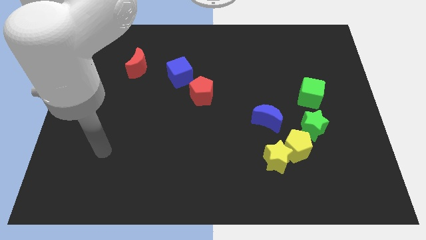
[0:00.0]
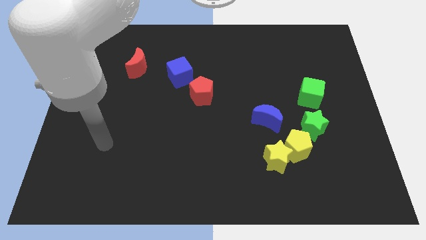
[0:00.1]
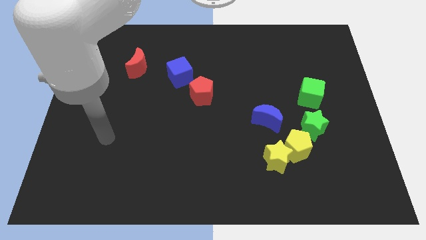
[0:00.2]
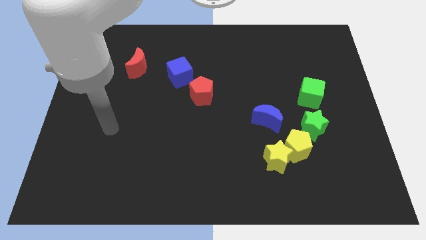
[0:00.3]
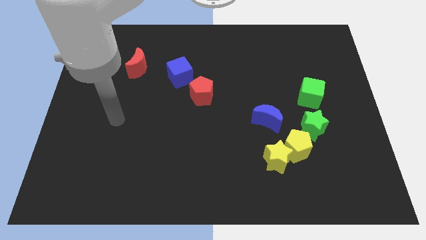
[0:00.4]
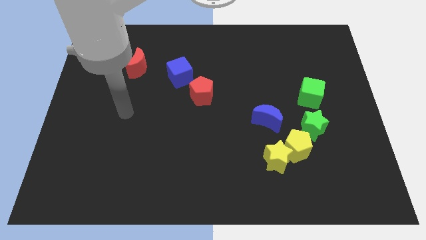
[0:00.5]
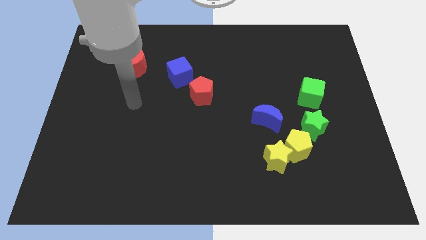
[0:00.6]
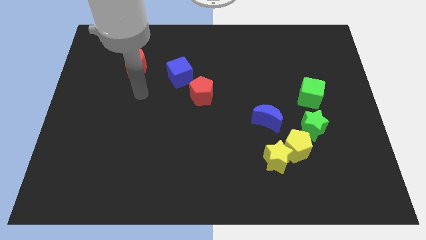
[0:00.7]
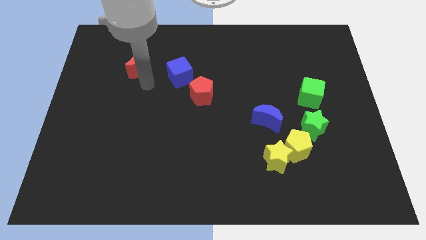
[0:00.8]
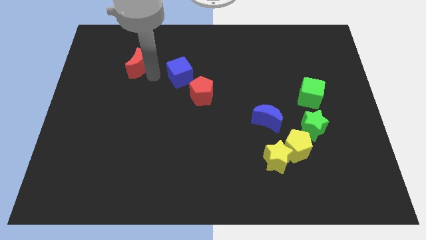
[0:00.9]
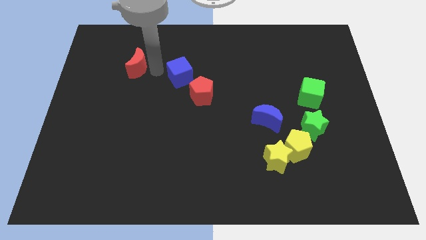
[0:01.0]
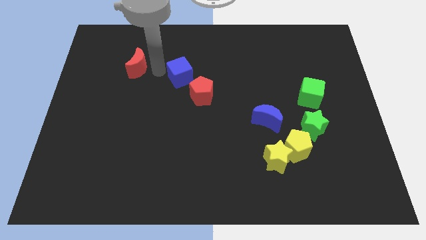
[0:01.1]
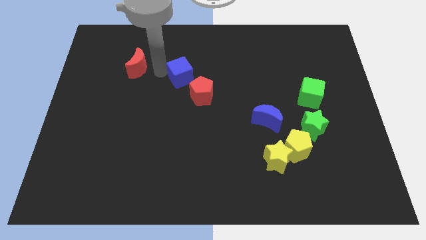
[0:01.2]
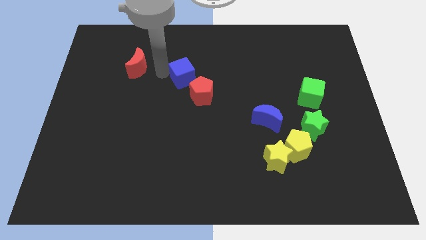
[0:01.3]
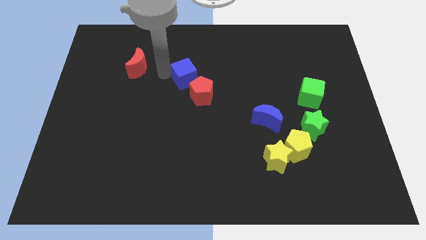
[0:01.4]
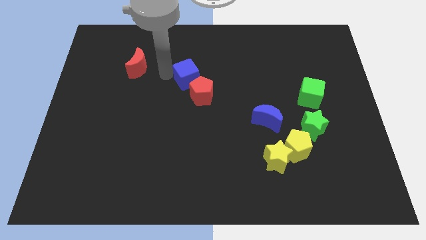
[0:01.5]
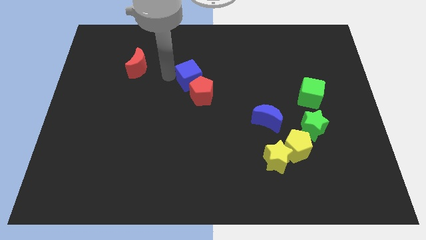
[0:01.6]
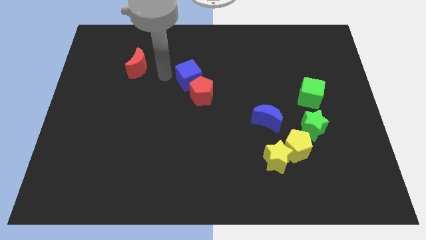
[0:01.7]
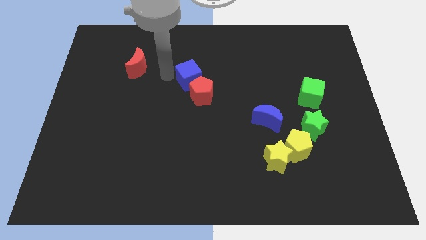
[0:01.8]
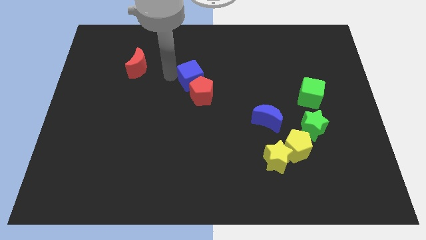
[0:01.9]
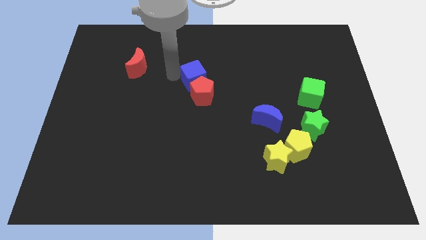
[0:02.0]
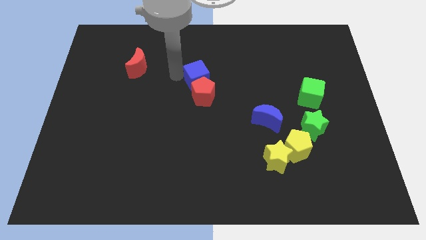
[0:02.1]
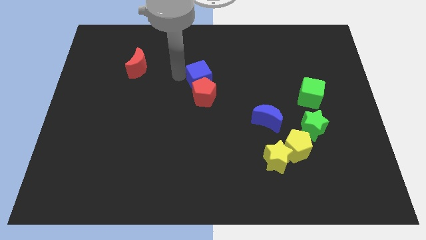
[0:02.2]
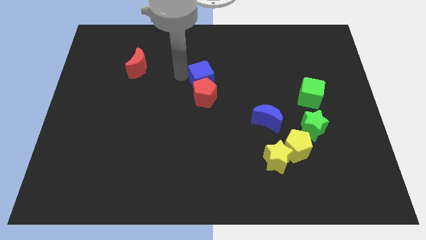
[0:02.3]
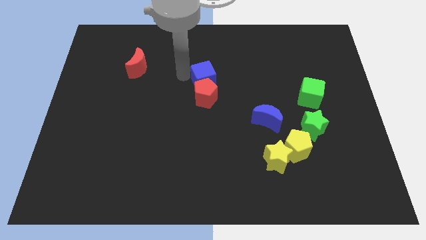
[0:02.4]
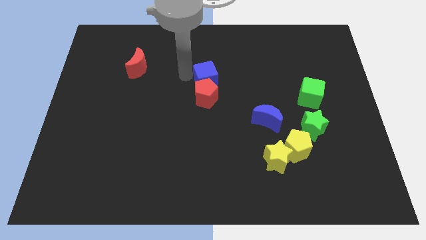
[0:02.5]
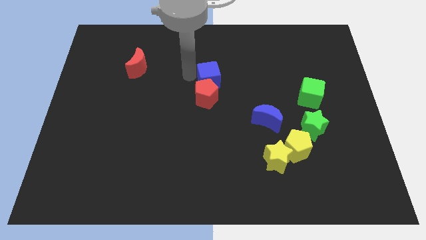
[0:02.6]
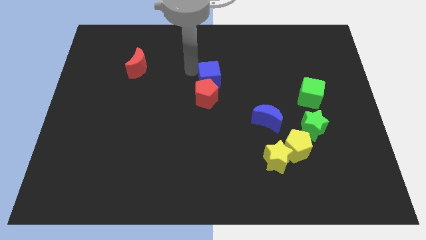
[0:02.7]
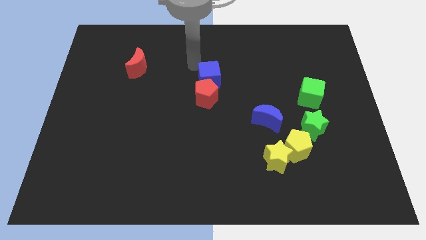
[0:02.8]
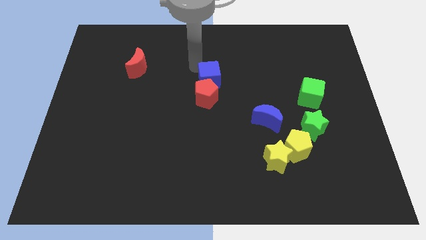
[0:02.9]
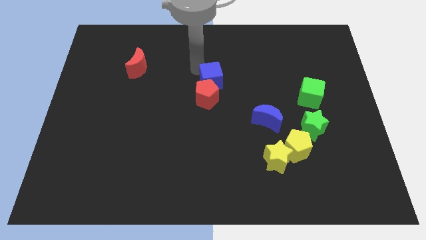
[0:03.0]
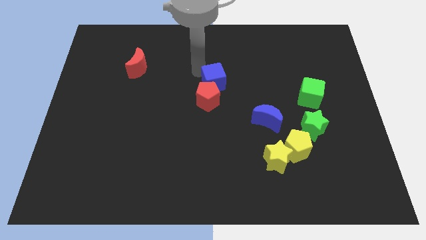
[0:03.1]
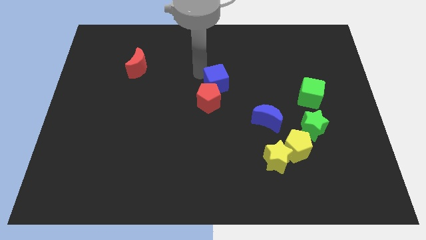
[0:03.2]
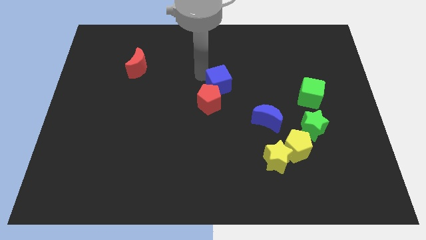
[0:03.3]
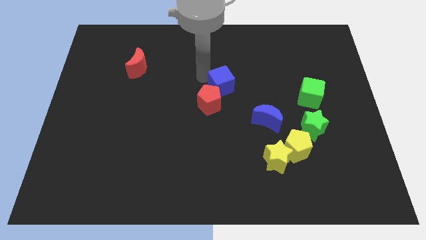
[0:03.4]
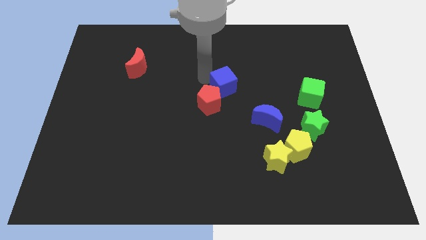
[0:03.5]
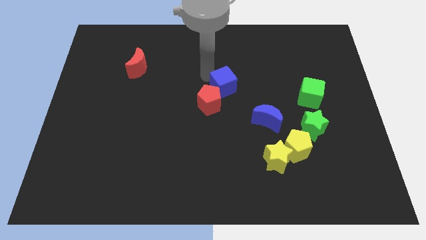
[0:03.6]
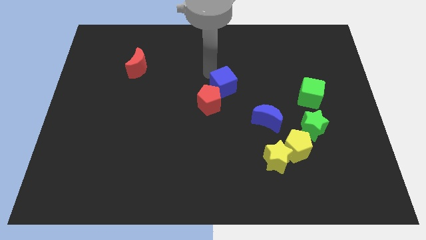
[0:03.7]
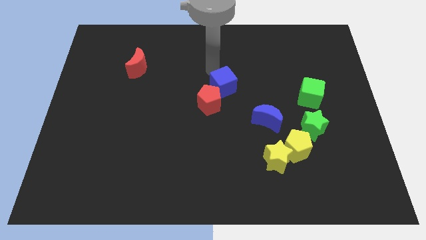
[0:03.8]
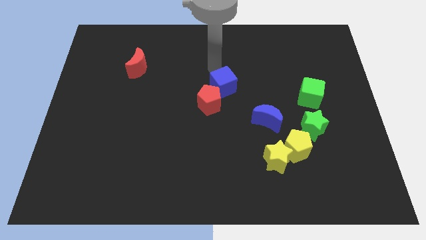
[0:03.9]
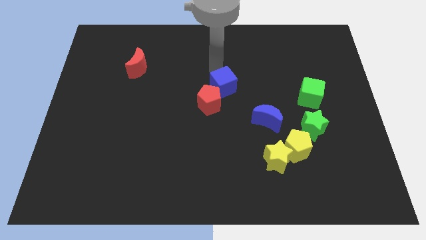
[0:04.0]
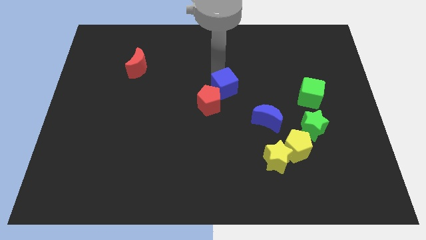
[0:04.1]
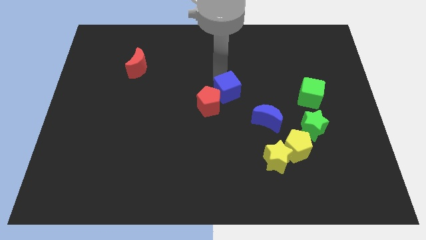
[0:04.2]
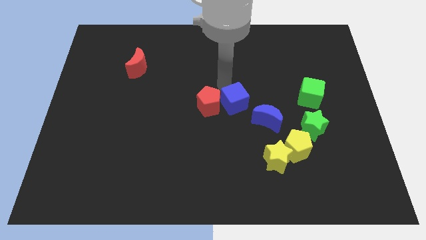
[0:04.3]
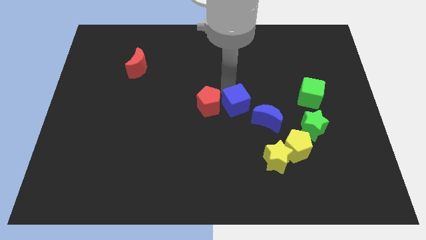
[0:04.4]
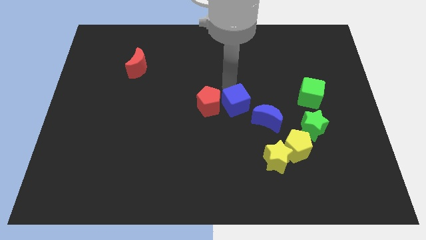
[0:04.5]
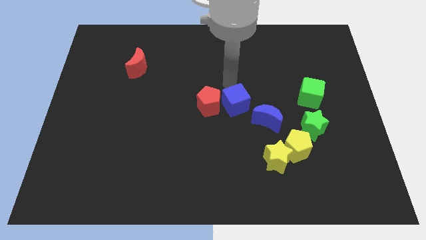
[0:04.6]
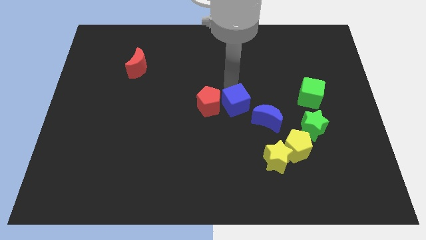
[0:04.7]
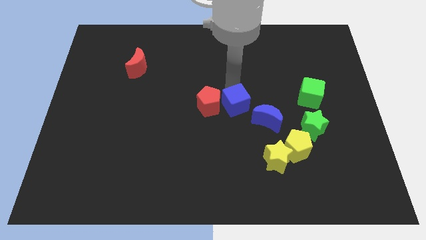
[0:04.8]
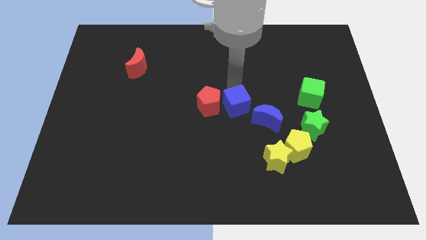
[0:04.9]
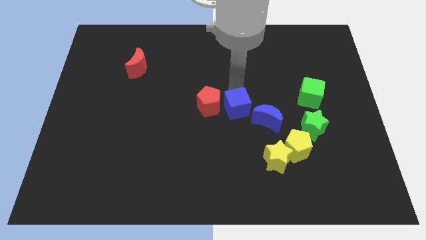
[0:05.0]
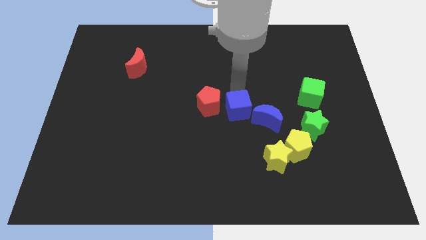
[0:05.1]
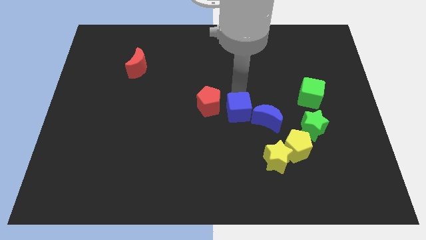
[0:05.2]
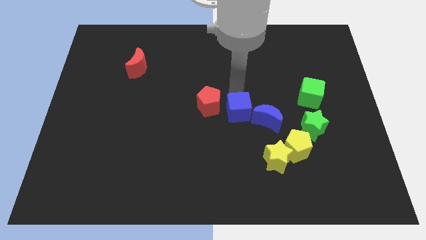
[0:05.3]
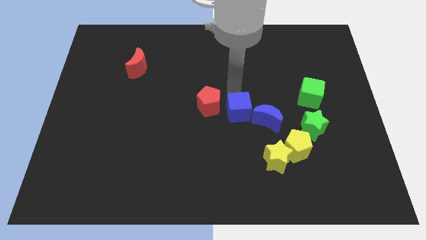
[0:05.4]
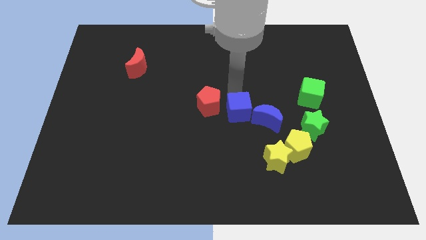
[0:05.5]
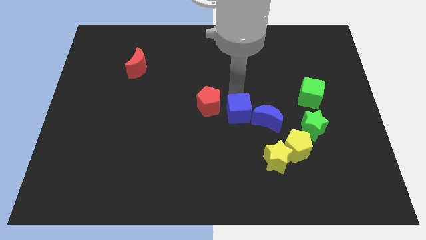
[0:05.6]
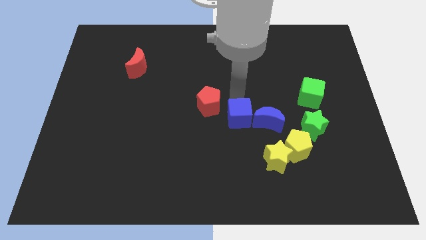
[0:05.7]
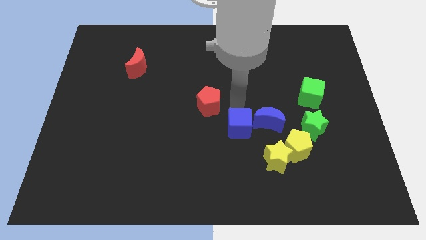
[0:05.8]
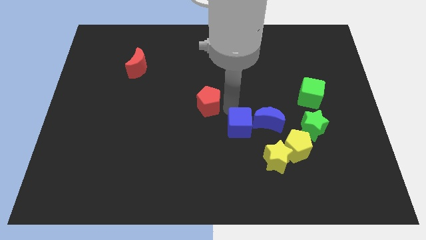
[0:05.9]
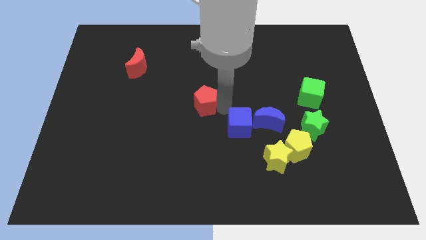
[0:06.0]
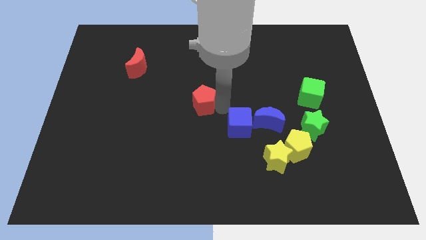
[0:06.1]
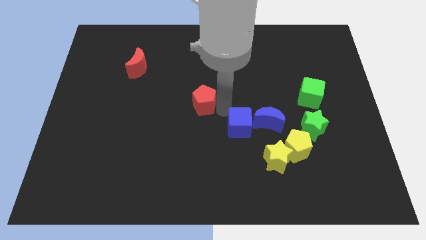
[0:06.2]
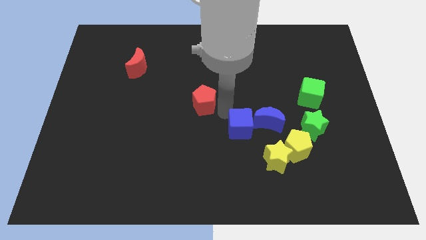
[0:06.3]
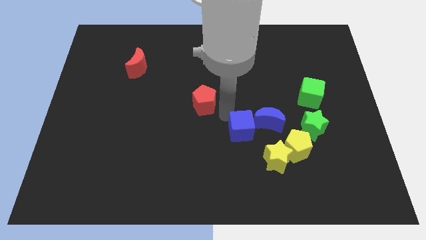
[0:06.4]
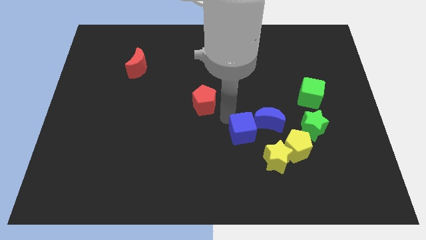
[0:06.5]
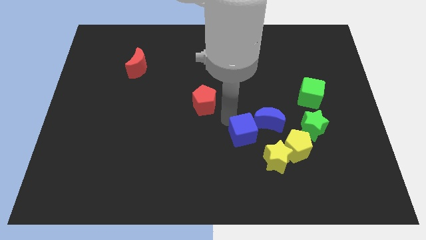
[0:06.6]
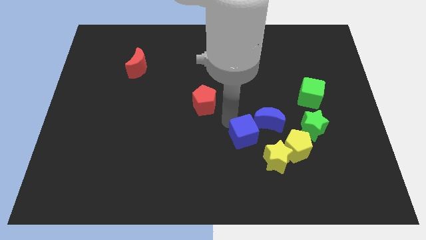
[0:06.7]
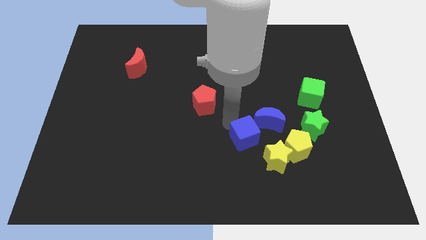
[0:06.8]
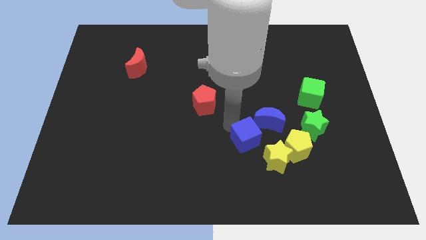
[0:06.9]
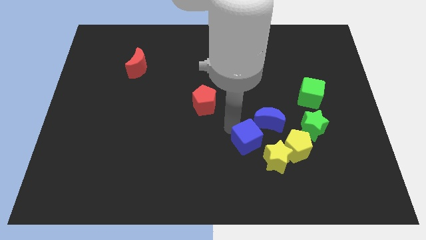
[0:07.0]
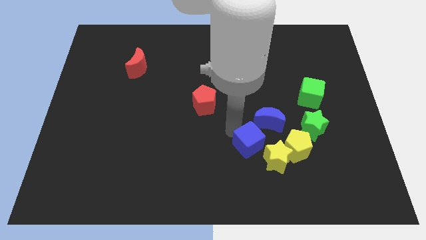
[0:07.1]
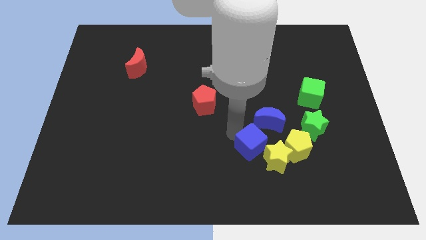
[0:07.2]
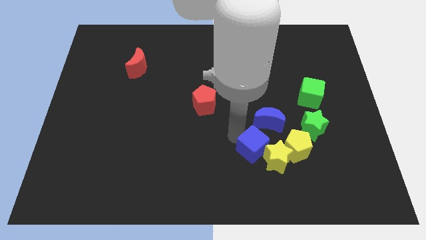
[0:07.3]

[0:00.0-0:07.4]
push the blue cube next to the yellow star
